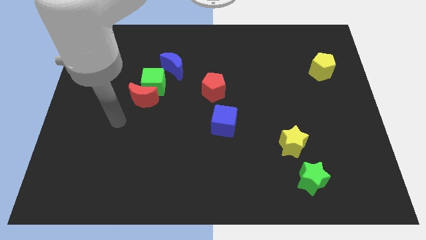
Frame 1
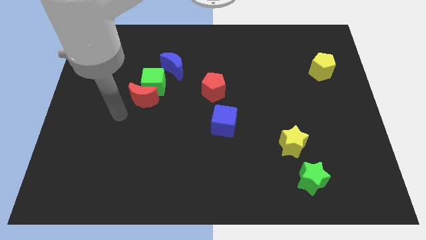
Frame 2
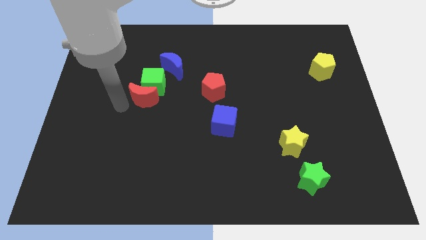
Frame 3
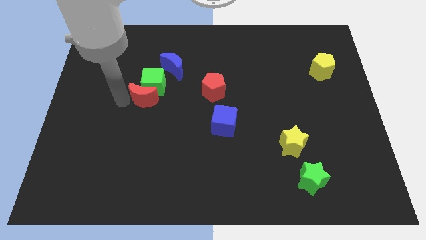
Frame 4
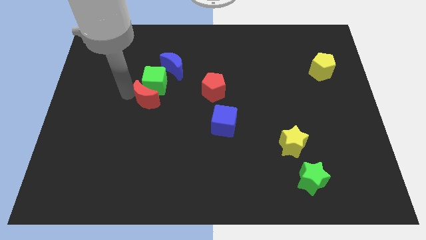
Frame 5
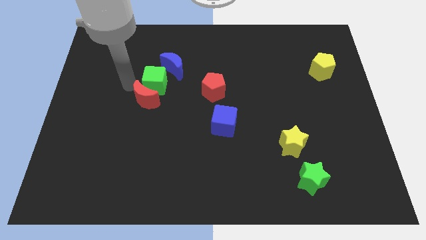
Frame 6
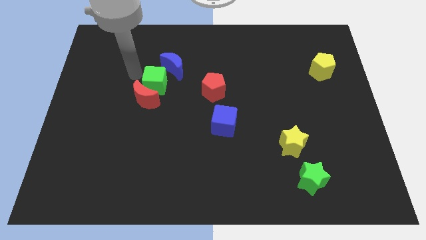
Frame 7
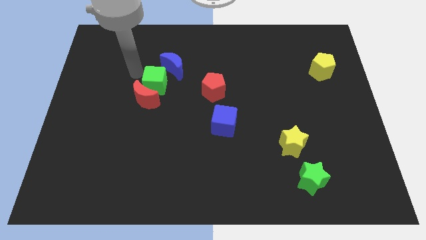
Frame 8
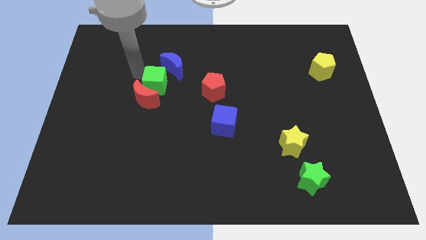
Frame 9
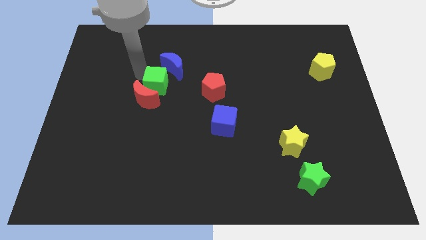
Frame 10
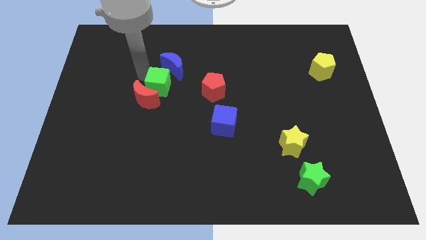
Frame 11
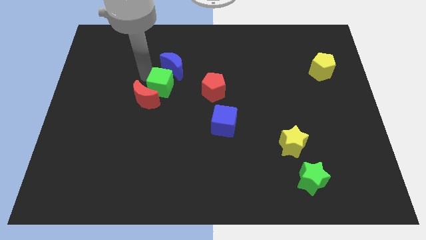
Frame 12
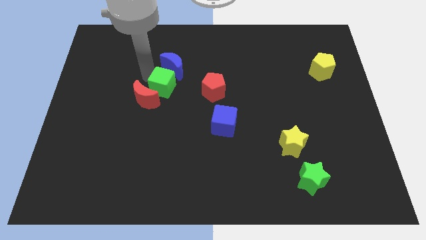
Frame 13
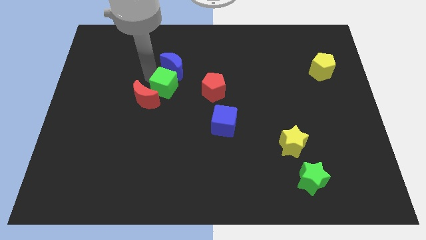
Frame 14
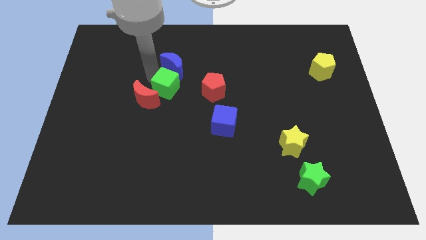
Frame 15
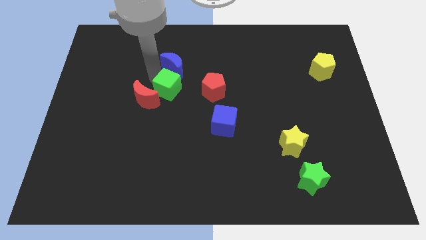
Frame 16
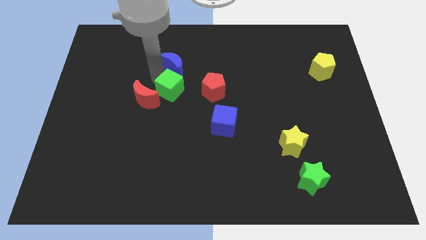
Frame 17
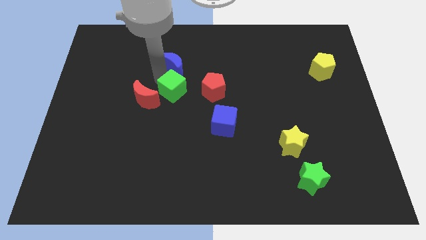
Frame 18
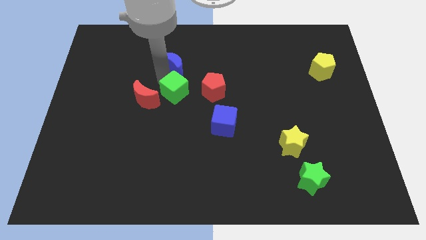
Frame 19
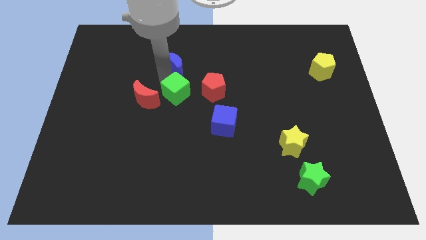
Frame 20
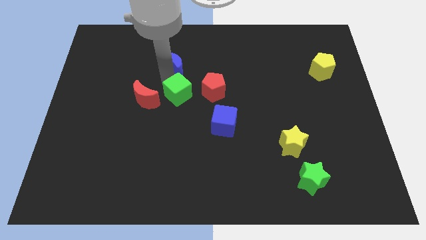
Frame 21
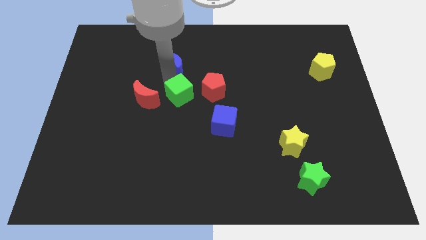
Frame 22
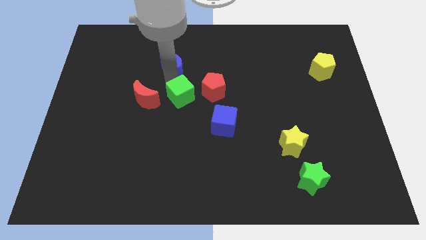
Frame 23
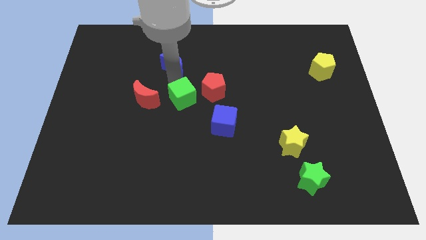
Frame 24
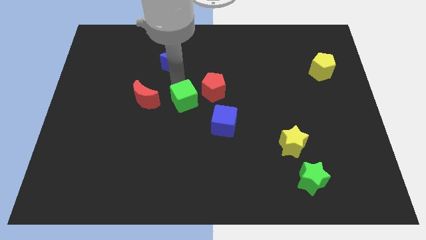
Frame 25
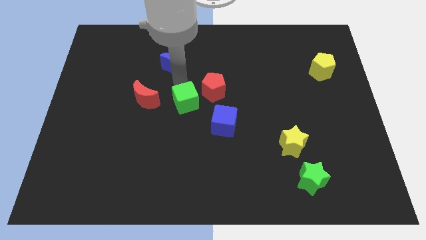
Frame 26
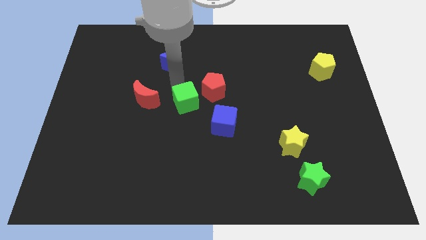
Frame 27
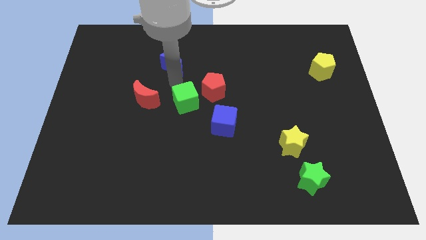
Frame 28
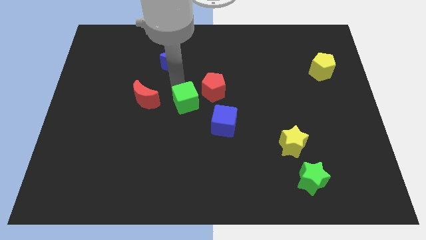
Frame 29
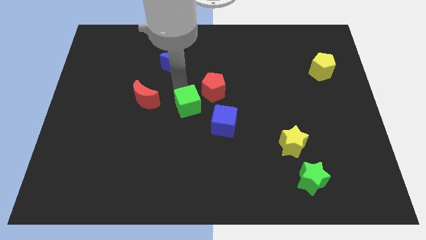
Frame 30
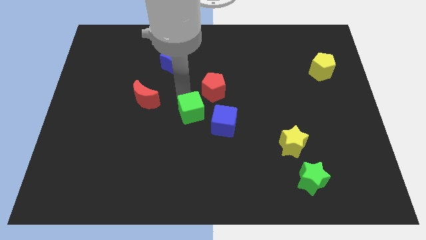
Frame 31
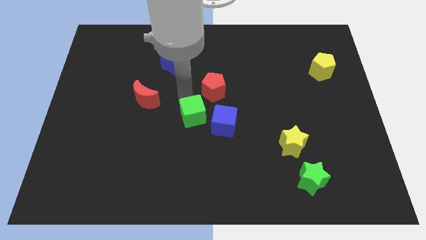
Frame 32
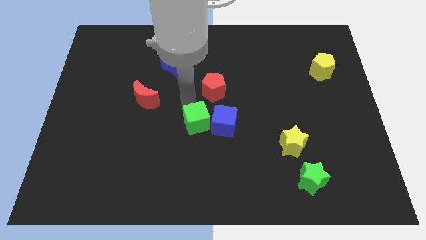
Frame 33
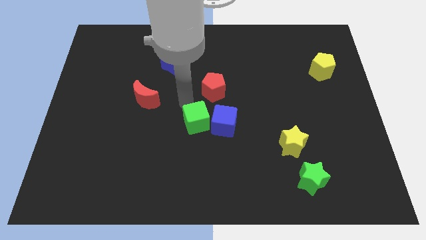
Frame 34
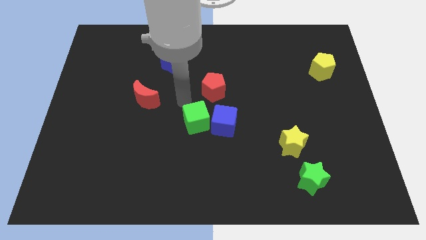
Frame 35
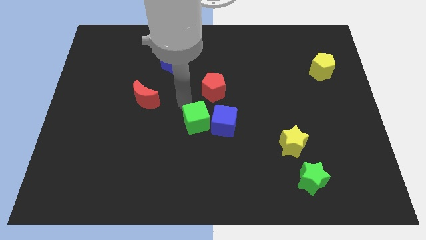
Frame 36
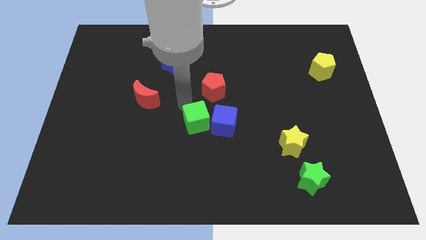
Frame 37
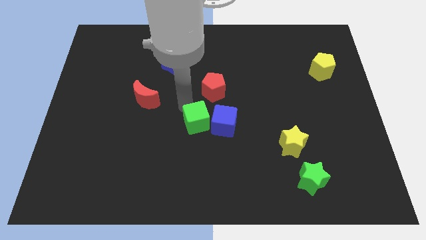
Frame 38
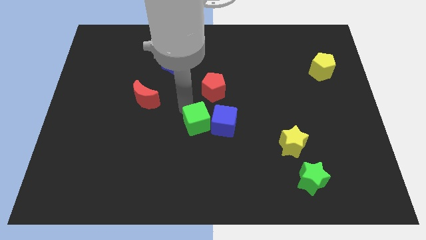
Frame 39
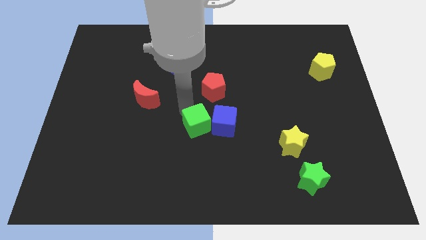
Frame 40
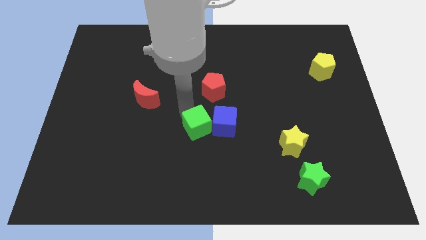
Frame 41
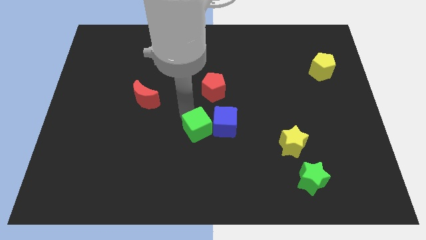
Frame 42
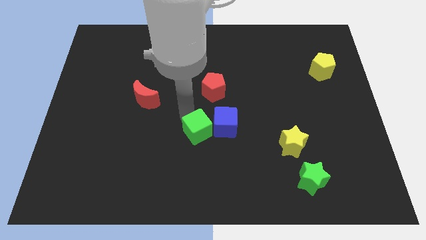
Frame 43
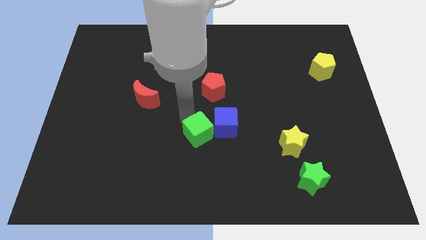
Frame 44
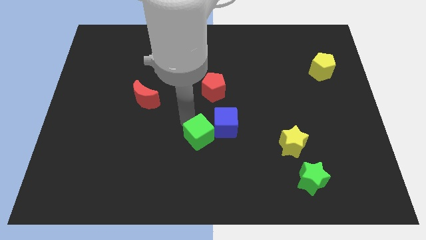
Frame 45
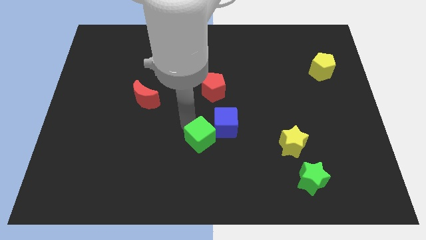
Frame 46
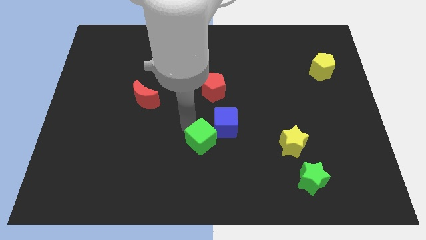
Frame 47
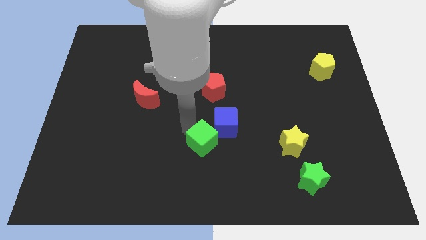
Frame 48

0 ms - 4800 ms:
slide the green cube down and then right

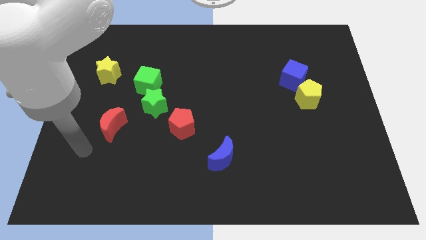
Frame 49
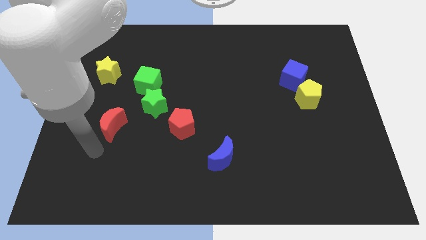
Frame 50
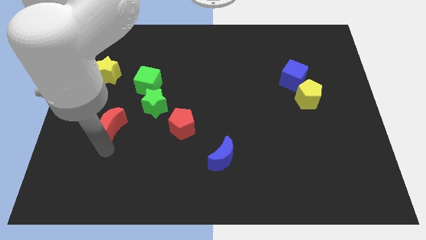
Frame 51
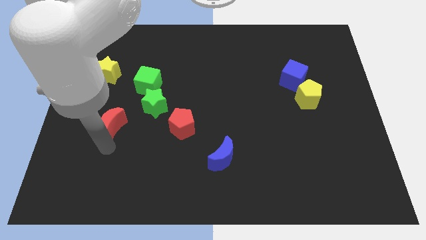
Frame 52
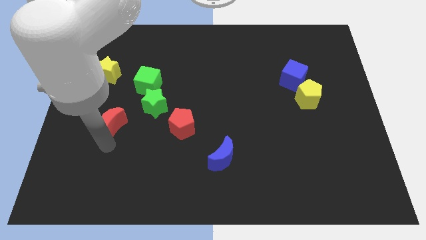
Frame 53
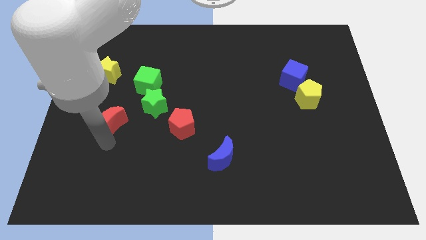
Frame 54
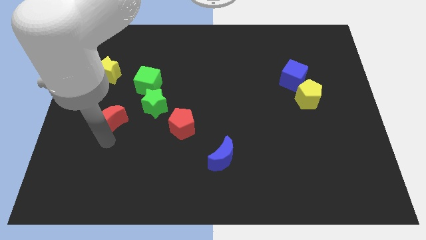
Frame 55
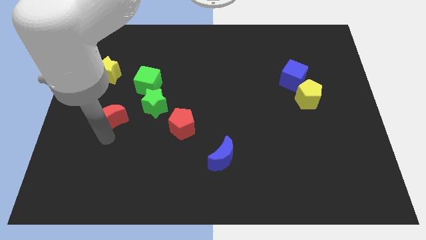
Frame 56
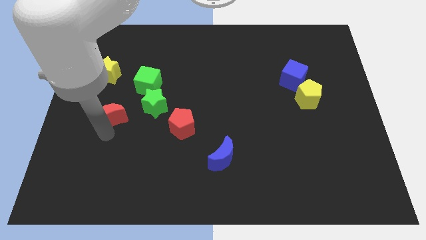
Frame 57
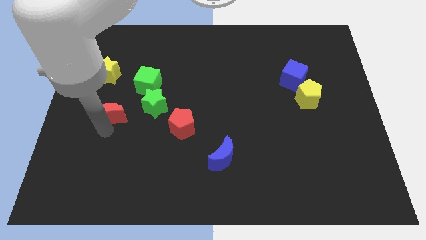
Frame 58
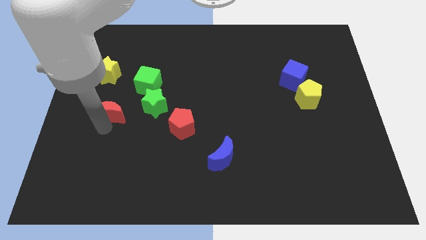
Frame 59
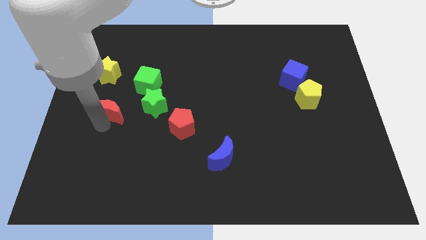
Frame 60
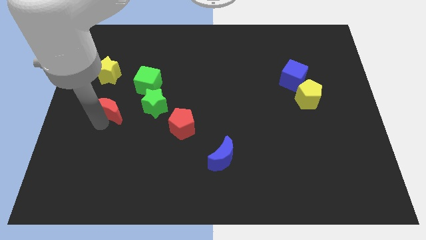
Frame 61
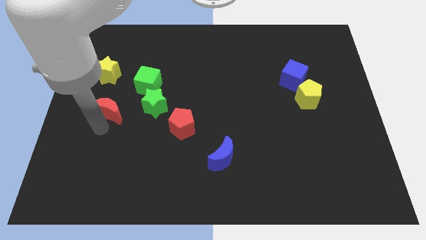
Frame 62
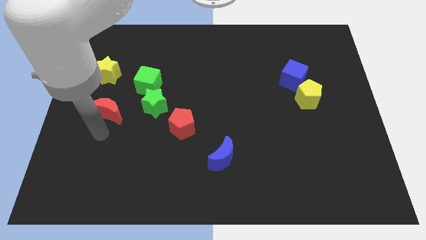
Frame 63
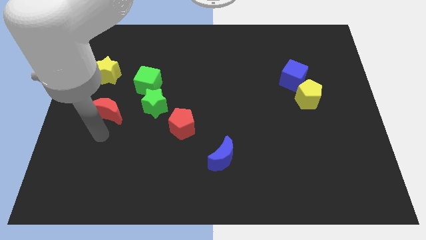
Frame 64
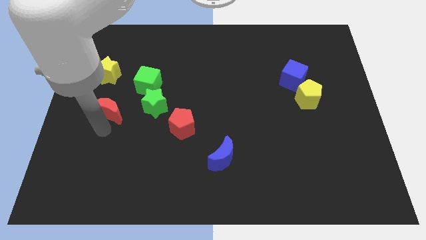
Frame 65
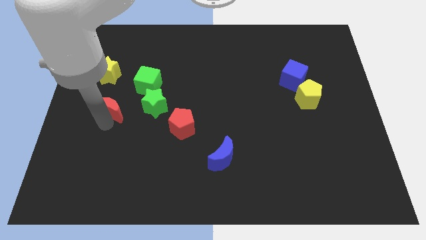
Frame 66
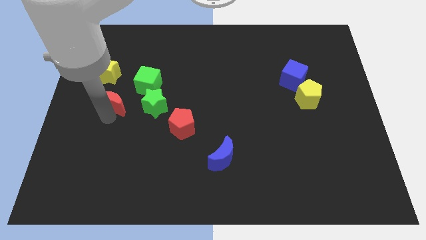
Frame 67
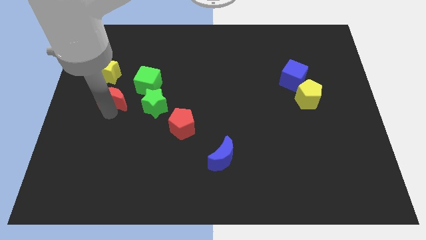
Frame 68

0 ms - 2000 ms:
slide the red moon upwards a bit

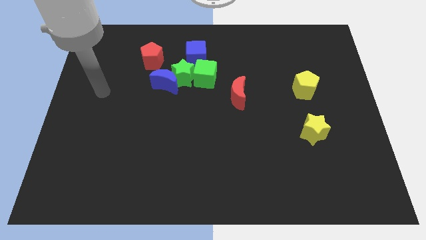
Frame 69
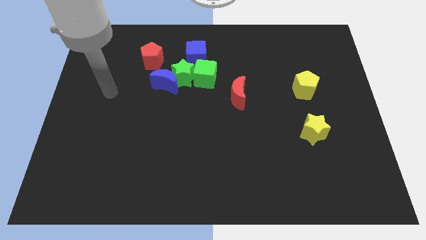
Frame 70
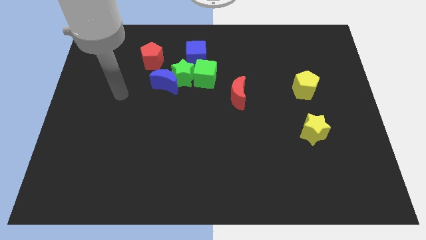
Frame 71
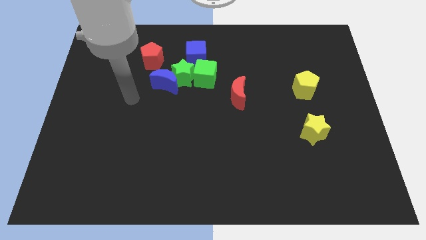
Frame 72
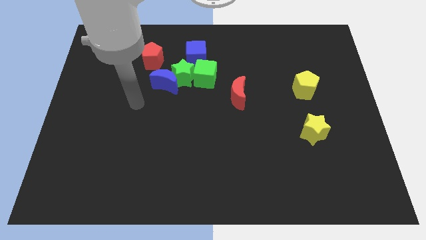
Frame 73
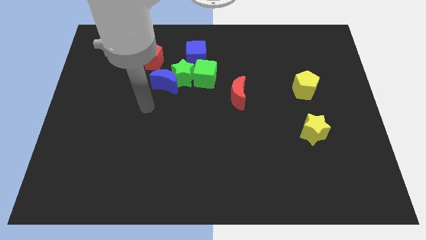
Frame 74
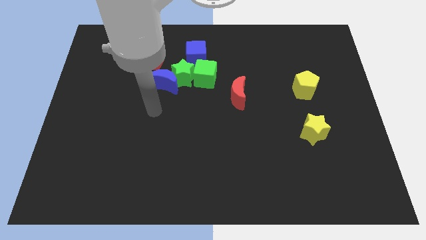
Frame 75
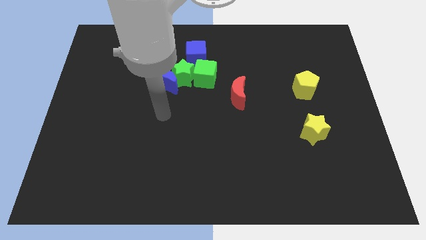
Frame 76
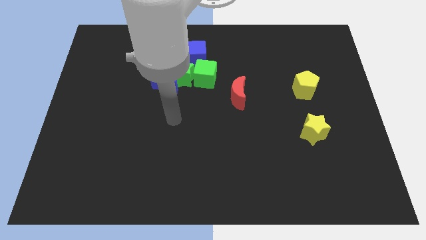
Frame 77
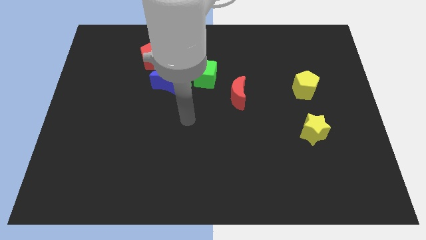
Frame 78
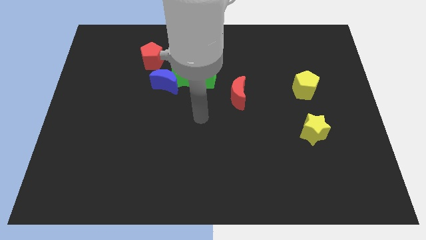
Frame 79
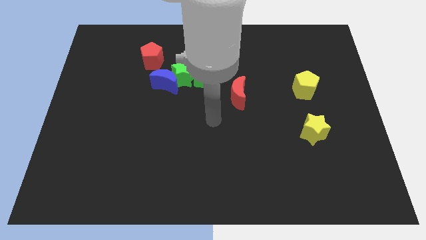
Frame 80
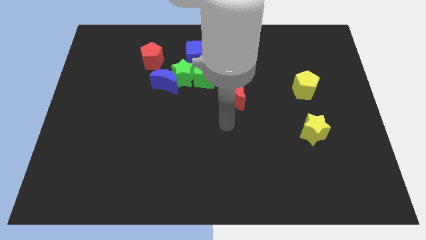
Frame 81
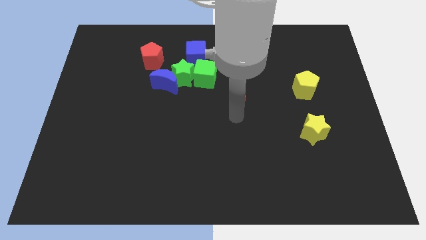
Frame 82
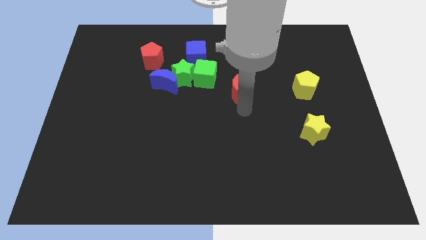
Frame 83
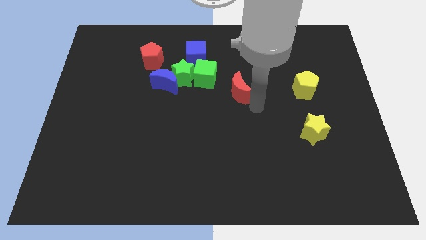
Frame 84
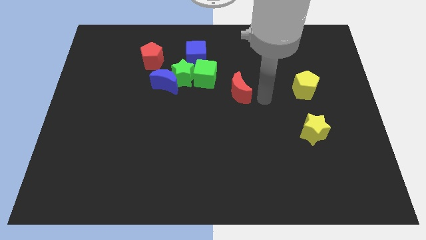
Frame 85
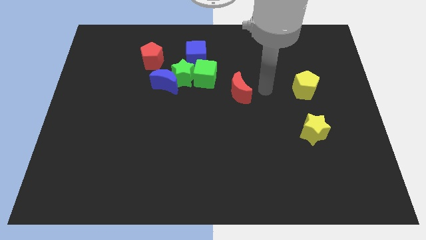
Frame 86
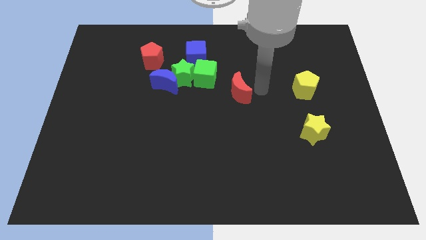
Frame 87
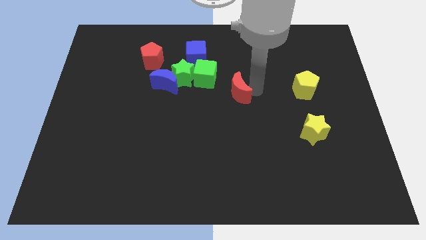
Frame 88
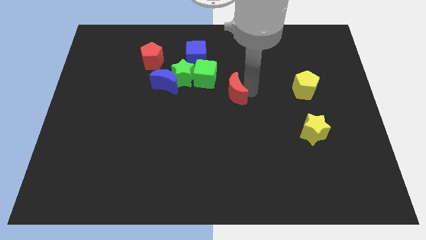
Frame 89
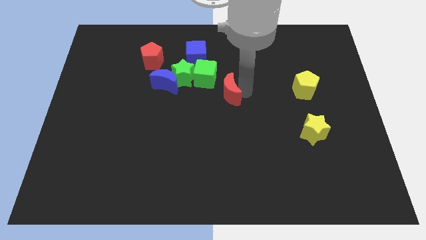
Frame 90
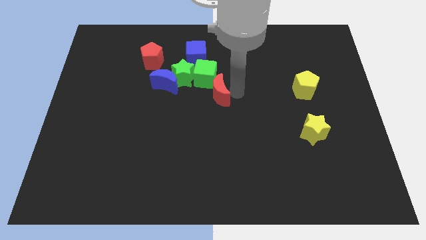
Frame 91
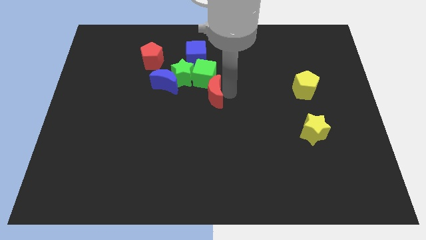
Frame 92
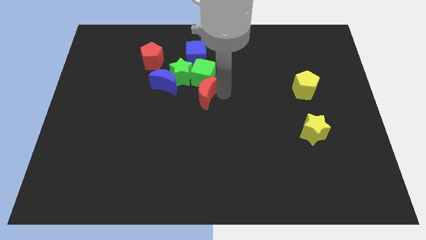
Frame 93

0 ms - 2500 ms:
slide the red moon left a little bit
